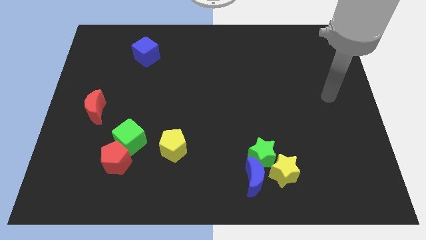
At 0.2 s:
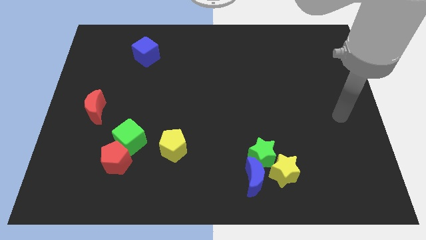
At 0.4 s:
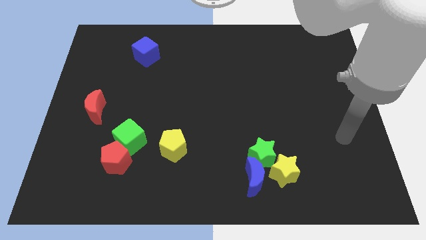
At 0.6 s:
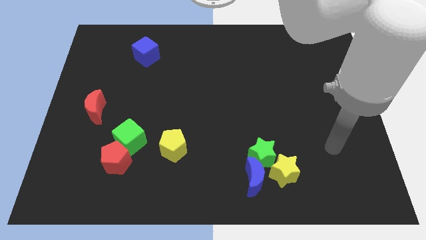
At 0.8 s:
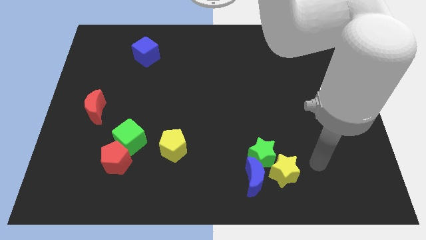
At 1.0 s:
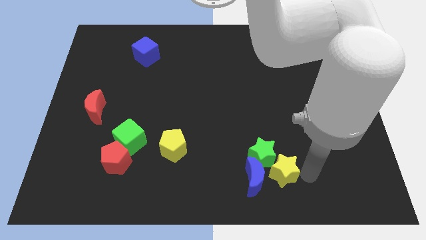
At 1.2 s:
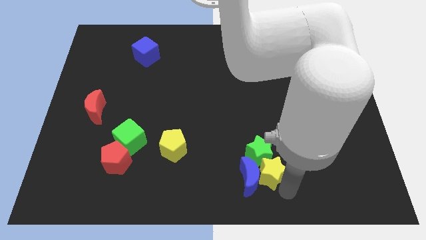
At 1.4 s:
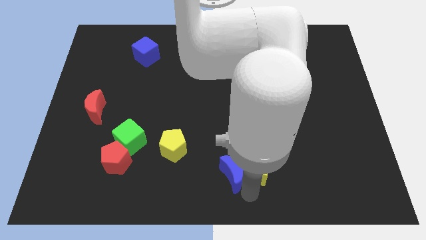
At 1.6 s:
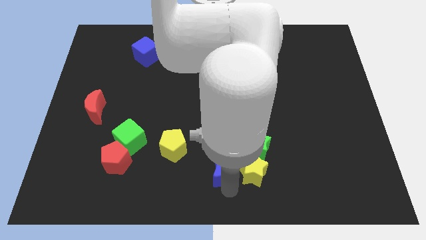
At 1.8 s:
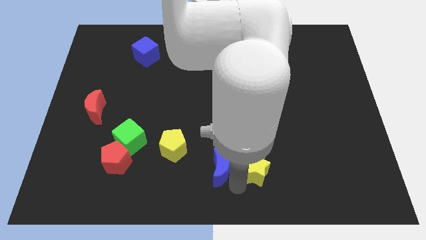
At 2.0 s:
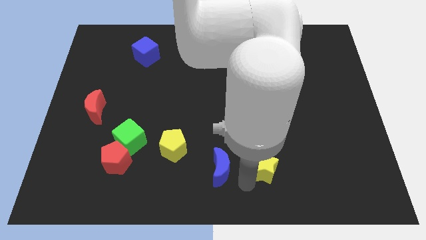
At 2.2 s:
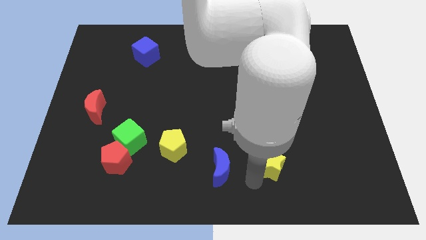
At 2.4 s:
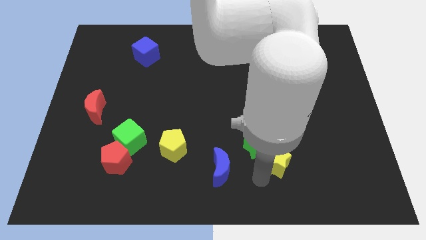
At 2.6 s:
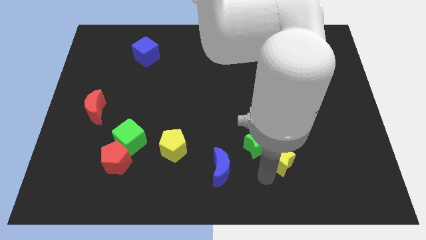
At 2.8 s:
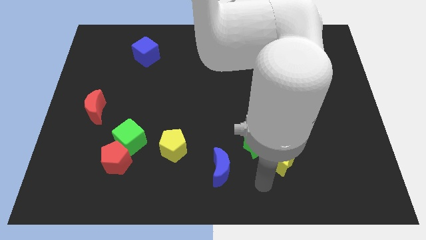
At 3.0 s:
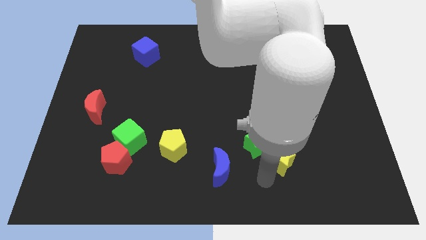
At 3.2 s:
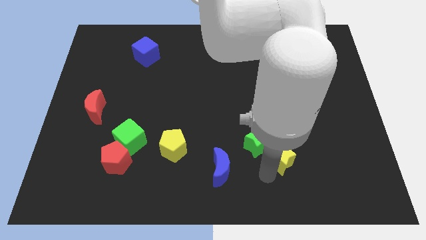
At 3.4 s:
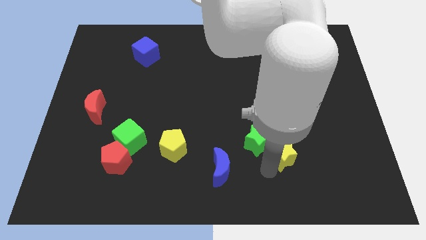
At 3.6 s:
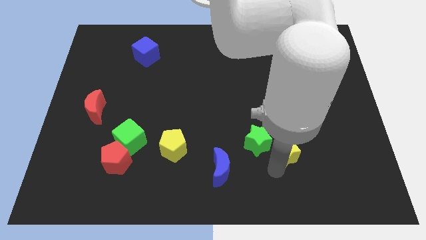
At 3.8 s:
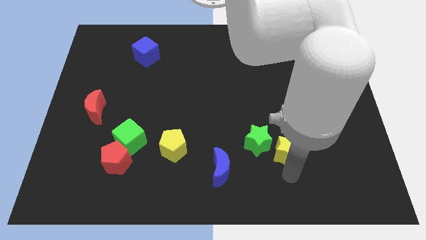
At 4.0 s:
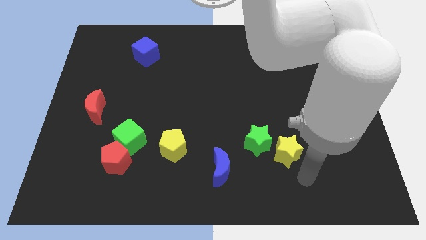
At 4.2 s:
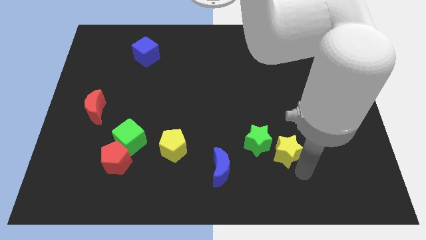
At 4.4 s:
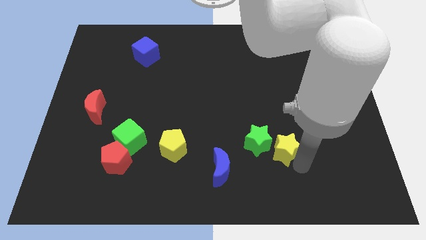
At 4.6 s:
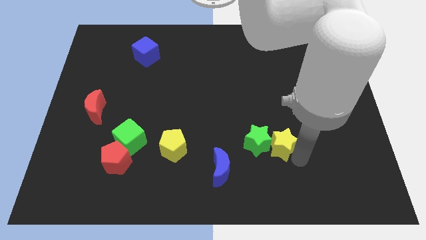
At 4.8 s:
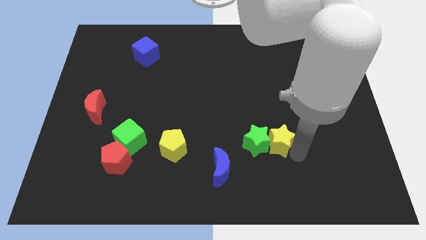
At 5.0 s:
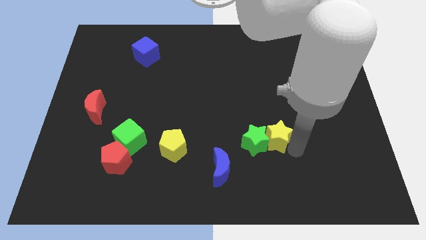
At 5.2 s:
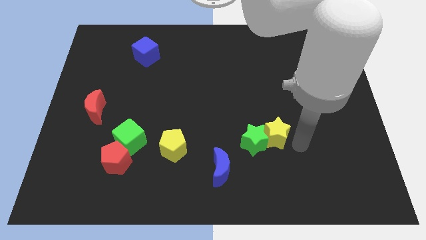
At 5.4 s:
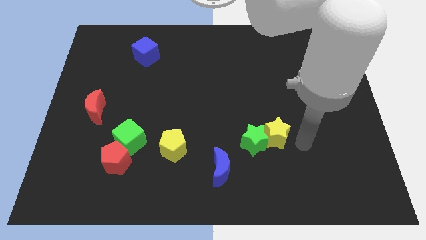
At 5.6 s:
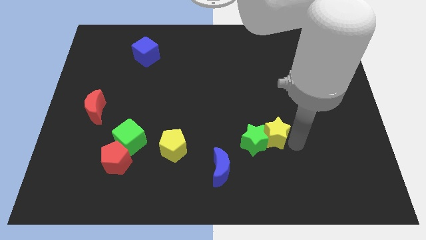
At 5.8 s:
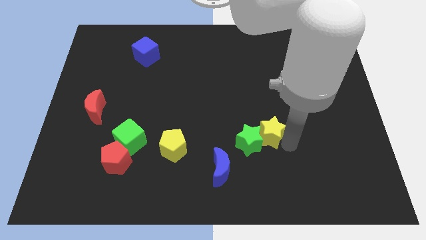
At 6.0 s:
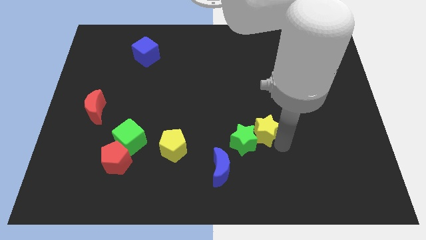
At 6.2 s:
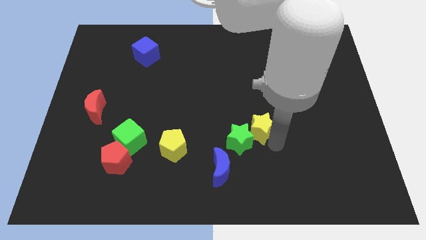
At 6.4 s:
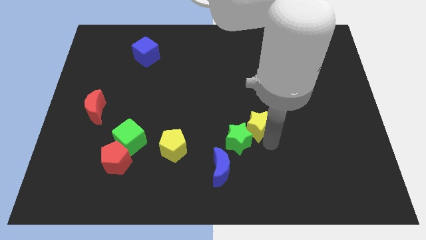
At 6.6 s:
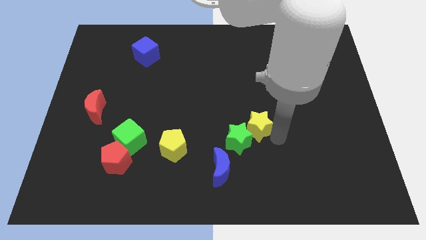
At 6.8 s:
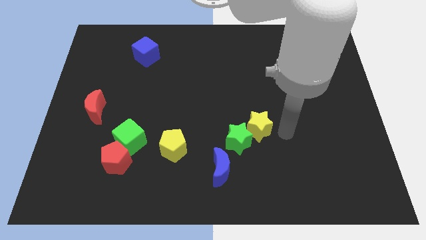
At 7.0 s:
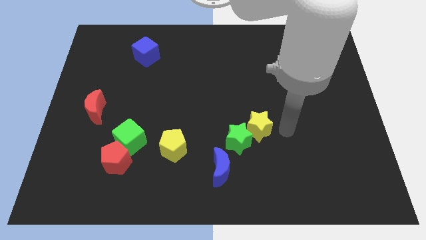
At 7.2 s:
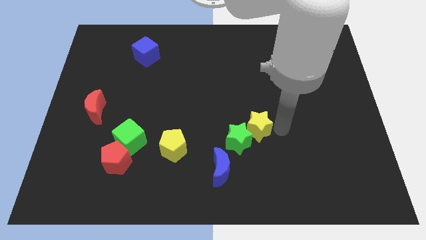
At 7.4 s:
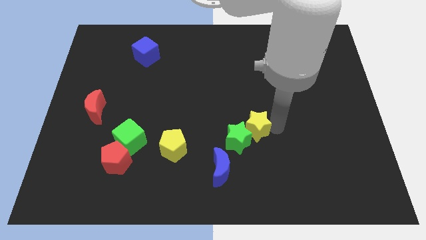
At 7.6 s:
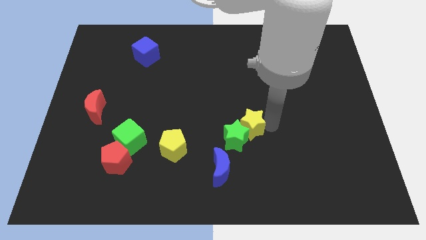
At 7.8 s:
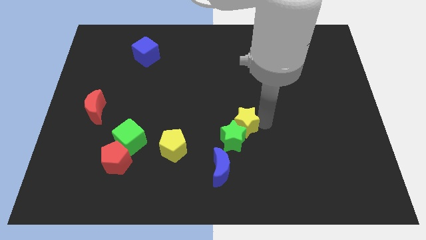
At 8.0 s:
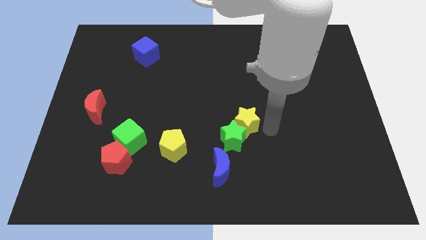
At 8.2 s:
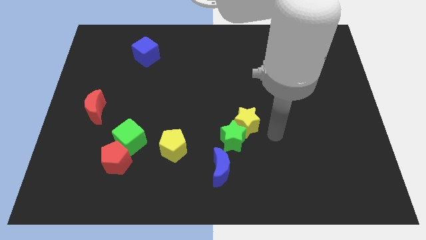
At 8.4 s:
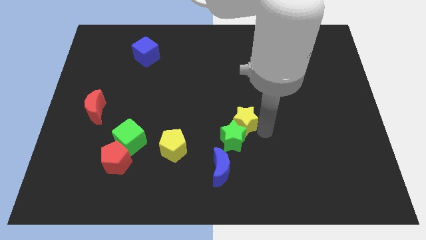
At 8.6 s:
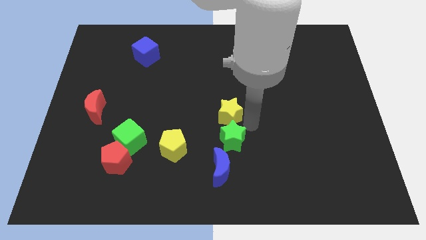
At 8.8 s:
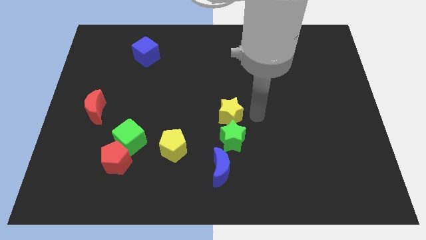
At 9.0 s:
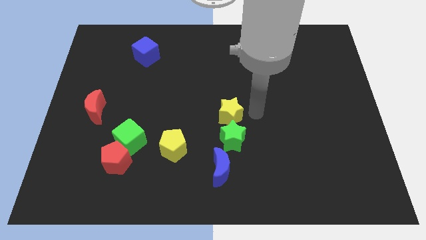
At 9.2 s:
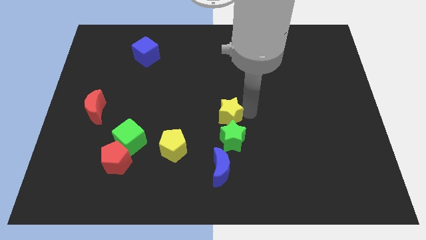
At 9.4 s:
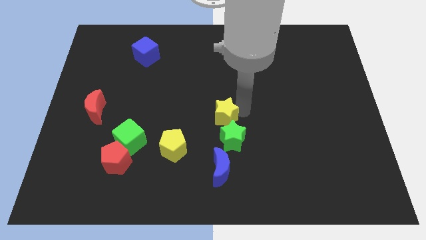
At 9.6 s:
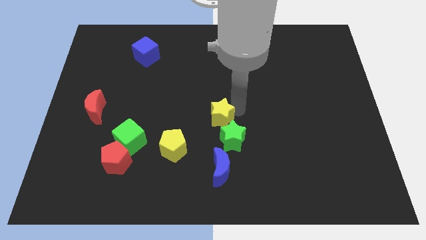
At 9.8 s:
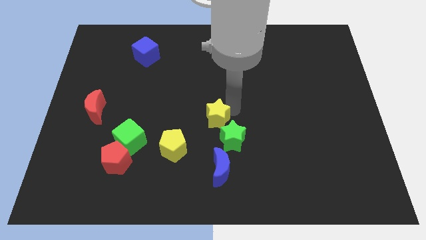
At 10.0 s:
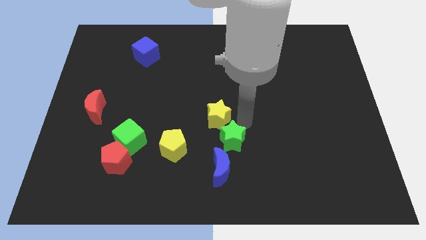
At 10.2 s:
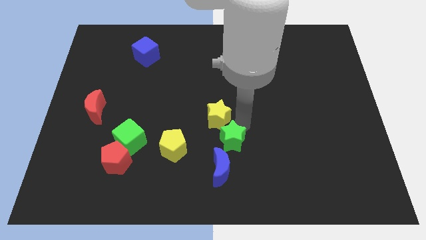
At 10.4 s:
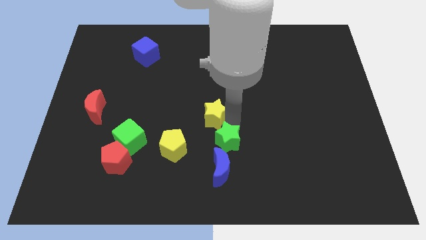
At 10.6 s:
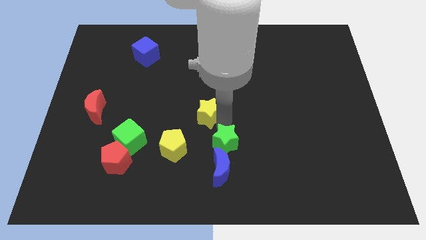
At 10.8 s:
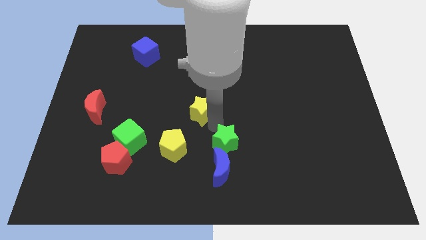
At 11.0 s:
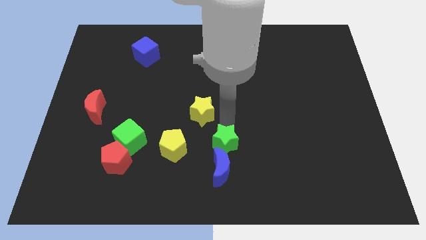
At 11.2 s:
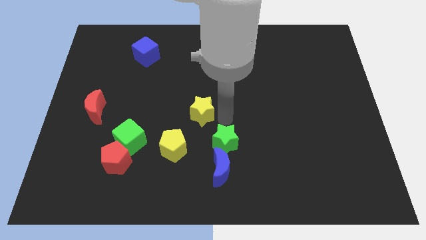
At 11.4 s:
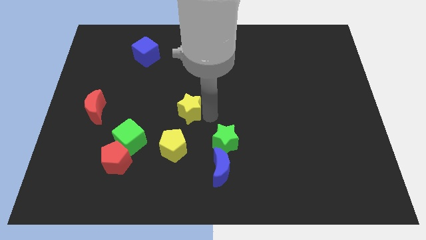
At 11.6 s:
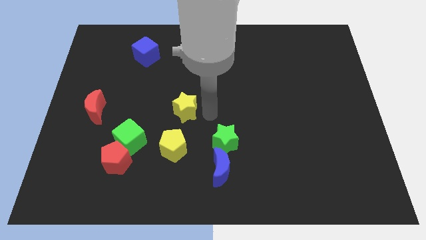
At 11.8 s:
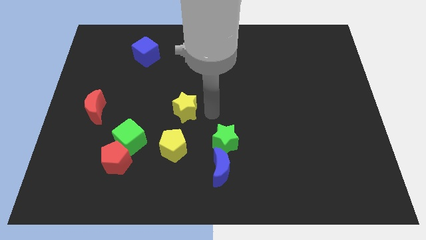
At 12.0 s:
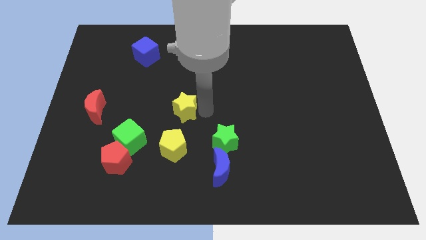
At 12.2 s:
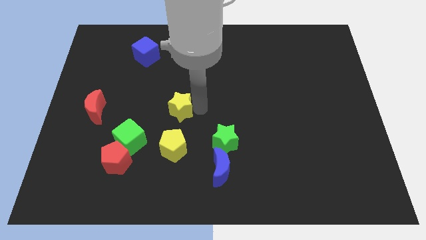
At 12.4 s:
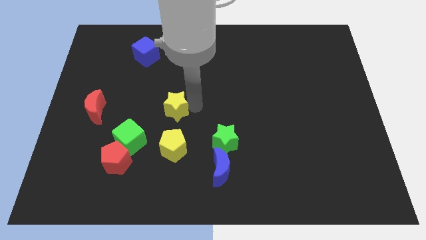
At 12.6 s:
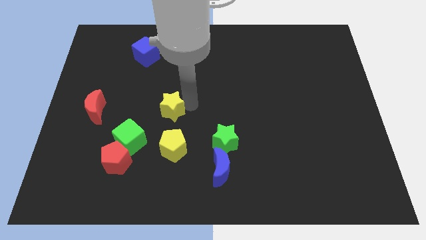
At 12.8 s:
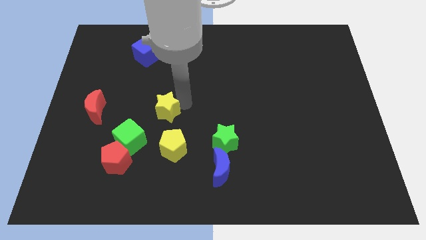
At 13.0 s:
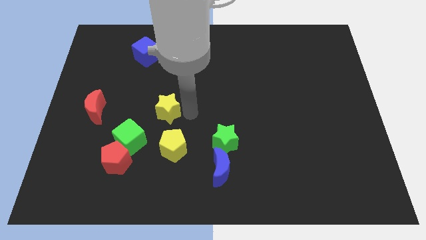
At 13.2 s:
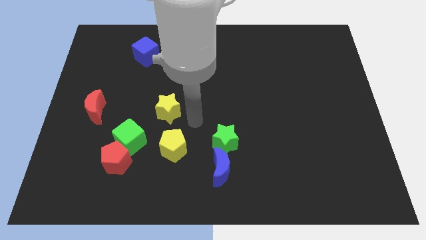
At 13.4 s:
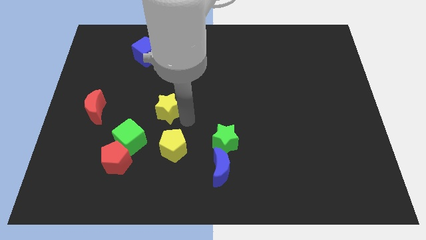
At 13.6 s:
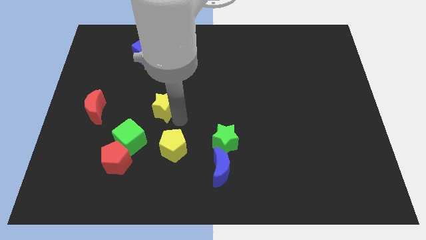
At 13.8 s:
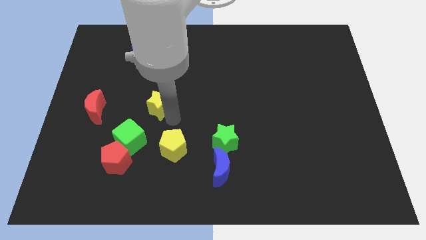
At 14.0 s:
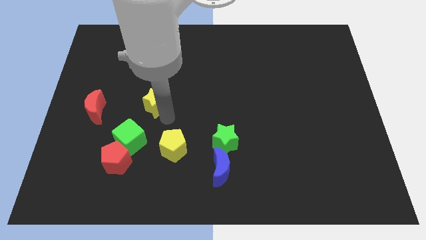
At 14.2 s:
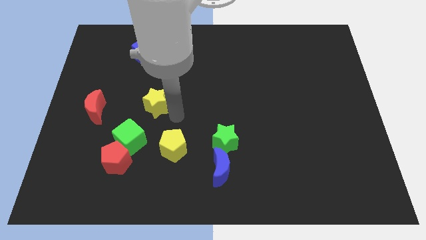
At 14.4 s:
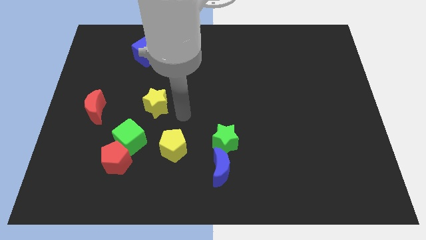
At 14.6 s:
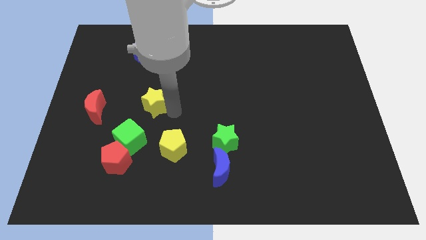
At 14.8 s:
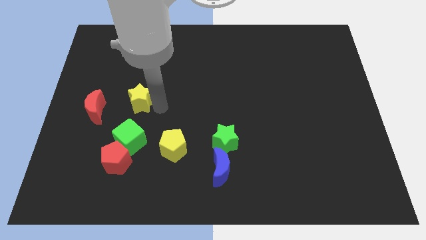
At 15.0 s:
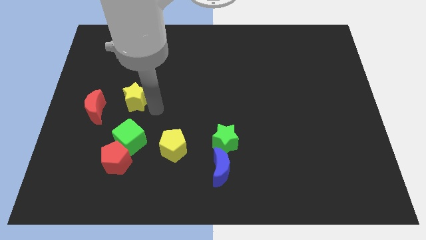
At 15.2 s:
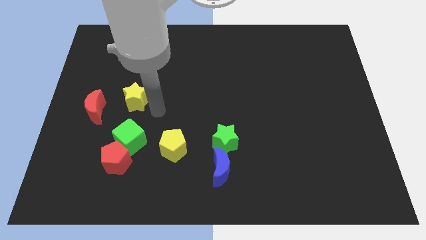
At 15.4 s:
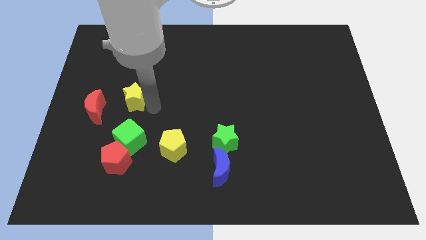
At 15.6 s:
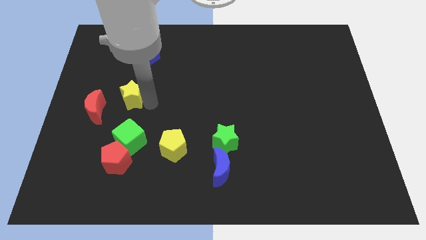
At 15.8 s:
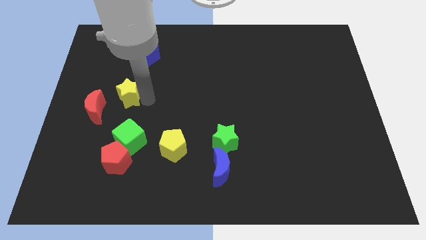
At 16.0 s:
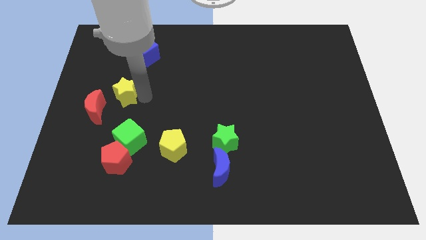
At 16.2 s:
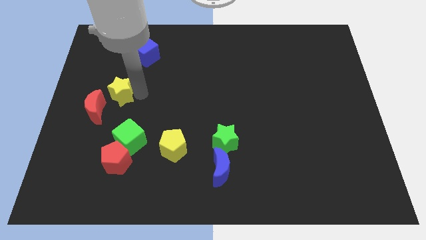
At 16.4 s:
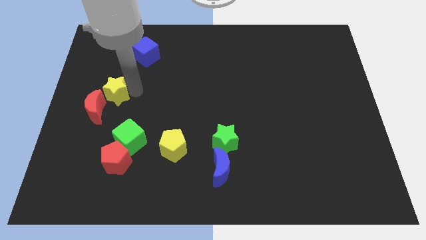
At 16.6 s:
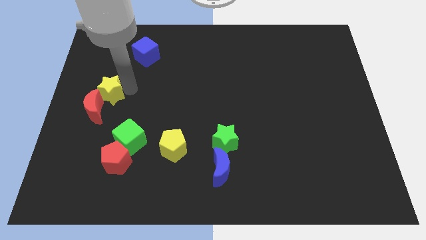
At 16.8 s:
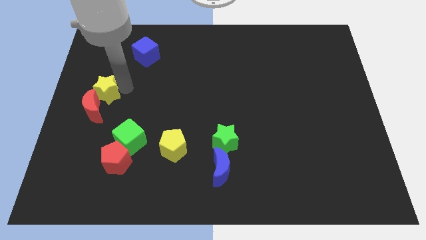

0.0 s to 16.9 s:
move the yellow star to the left side of the board
